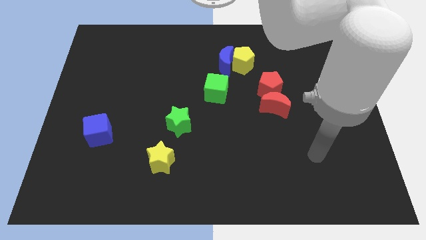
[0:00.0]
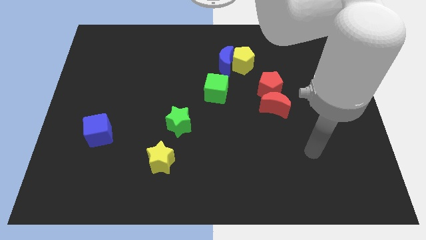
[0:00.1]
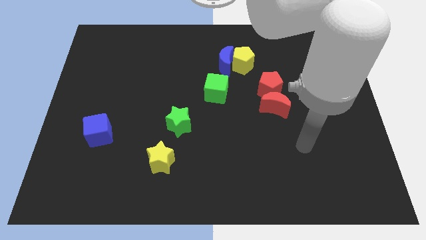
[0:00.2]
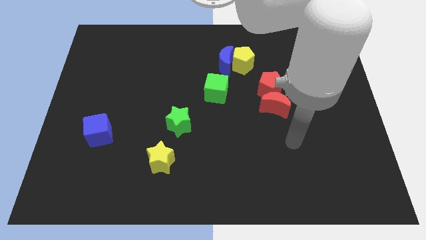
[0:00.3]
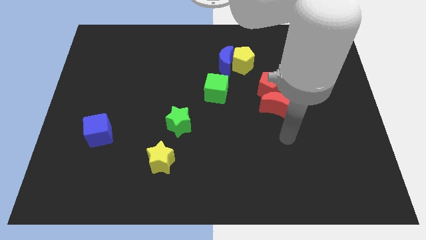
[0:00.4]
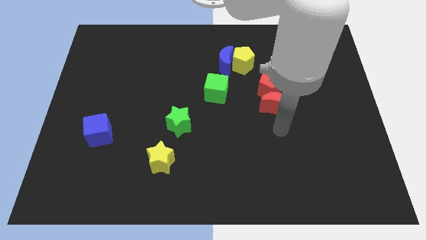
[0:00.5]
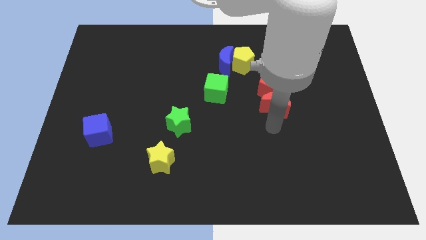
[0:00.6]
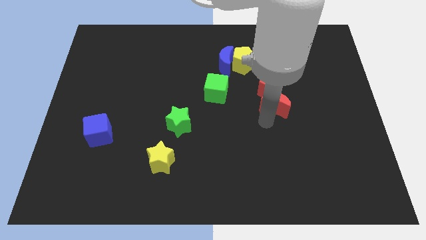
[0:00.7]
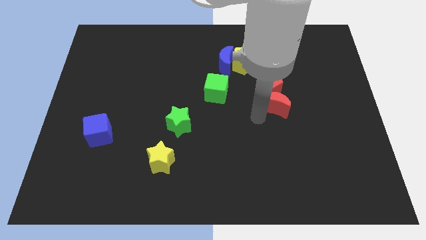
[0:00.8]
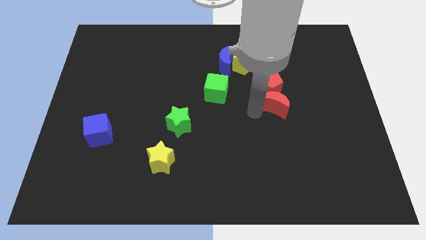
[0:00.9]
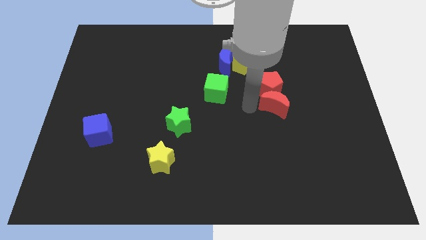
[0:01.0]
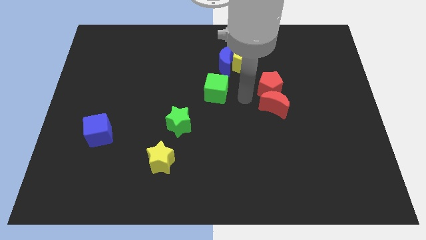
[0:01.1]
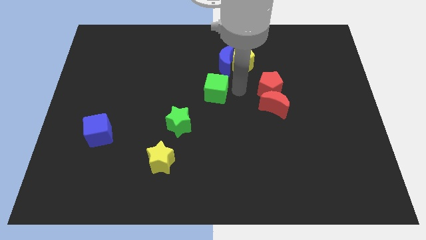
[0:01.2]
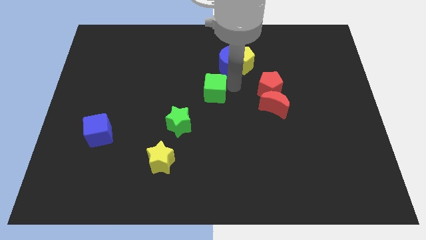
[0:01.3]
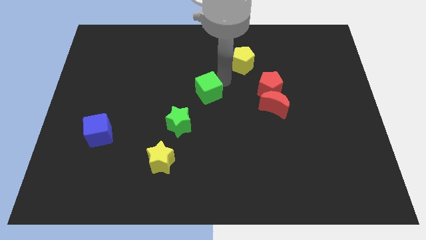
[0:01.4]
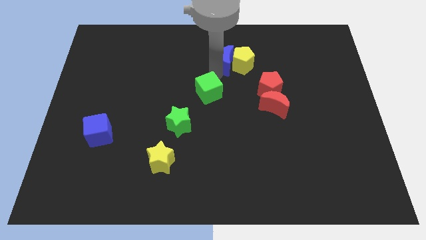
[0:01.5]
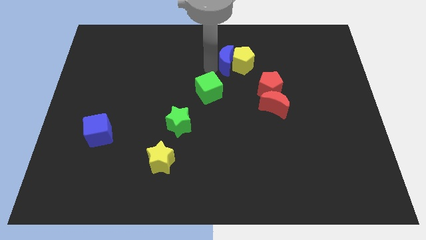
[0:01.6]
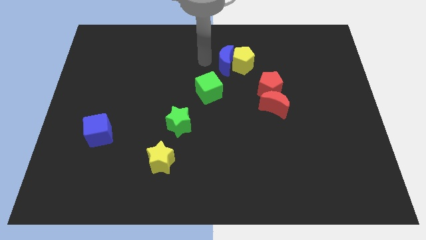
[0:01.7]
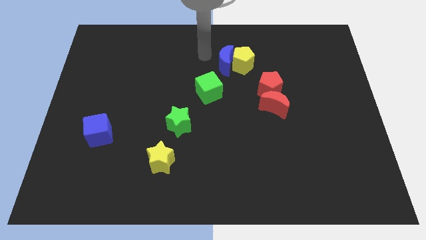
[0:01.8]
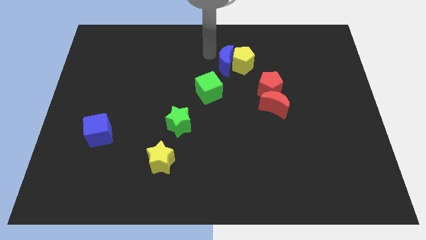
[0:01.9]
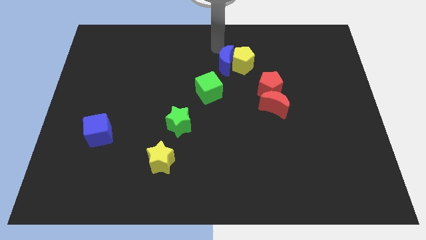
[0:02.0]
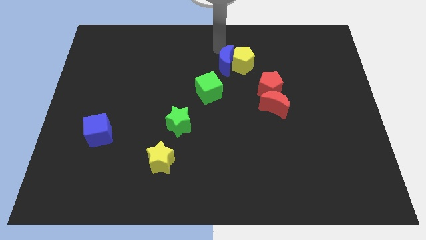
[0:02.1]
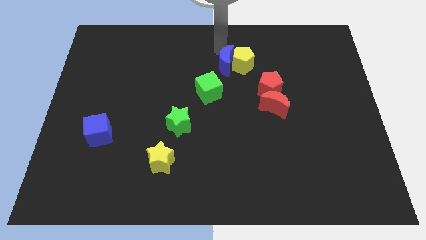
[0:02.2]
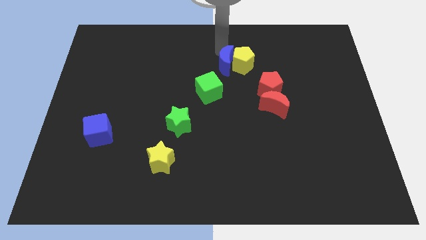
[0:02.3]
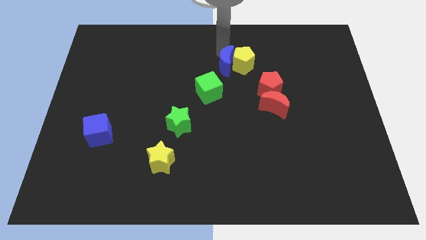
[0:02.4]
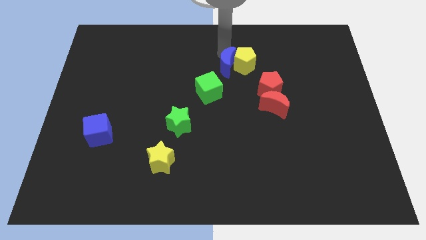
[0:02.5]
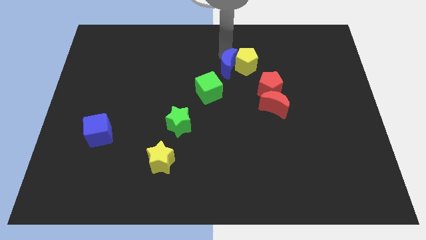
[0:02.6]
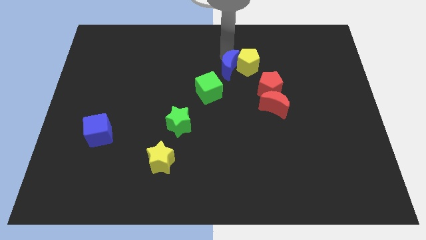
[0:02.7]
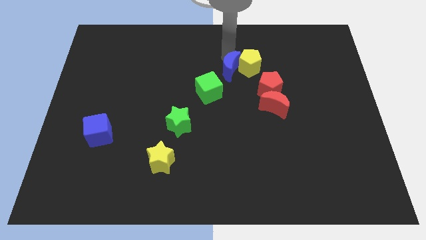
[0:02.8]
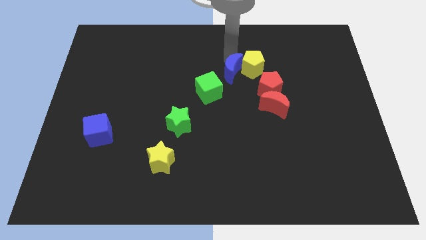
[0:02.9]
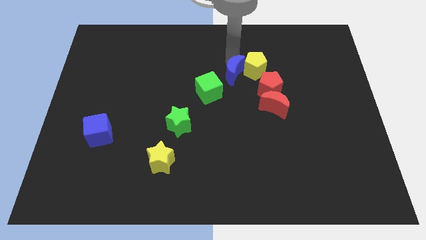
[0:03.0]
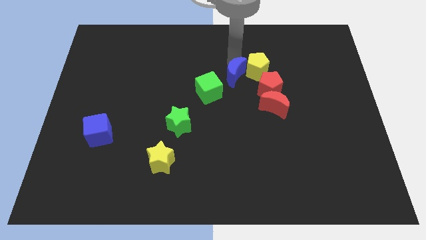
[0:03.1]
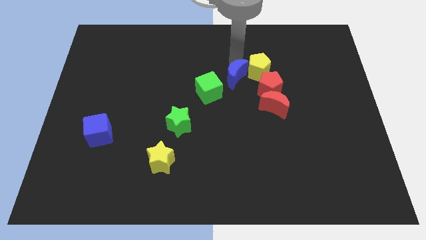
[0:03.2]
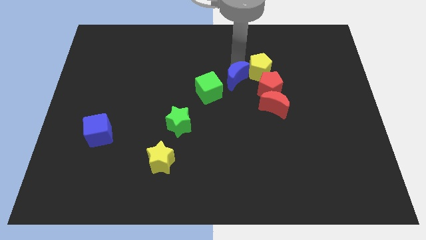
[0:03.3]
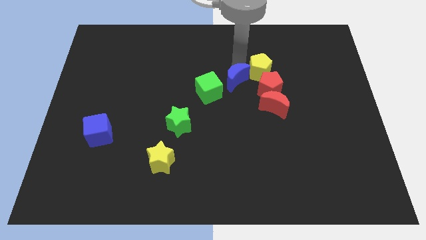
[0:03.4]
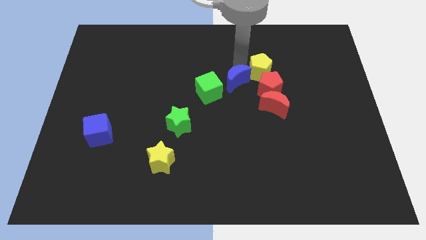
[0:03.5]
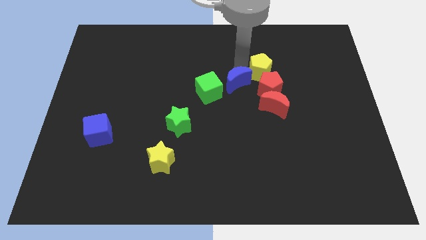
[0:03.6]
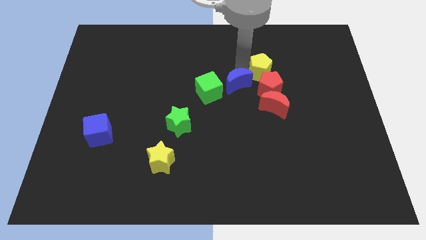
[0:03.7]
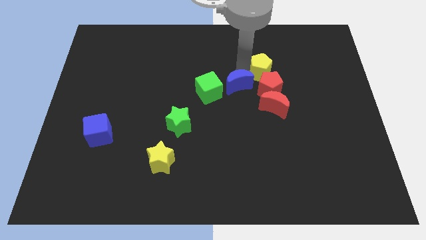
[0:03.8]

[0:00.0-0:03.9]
move the blue moon slightly down

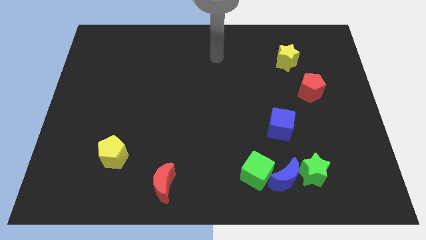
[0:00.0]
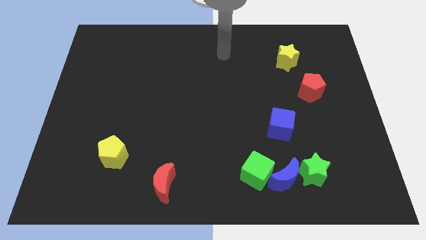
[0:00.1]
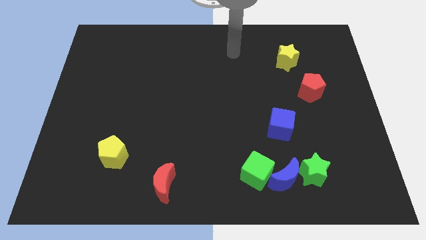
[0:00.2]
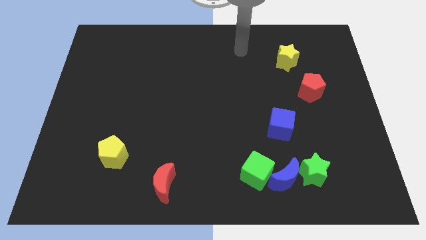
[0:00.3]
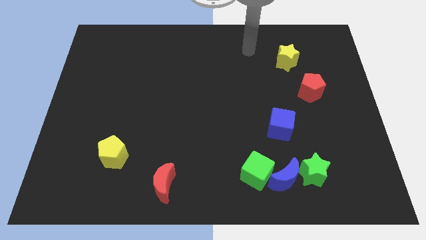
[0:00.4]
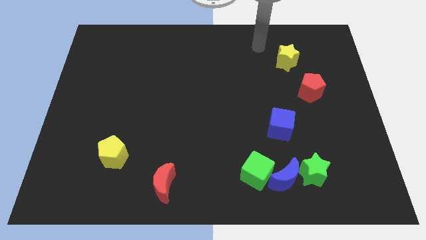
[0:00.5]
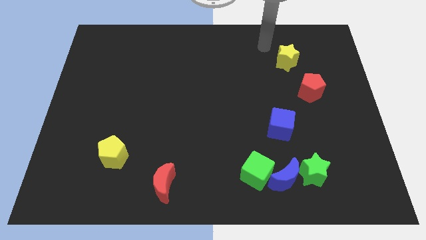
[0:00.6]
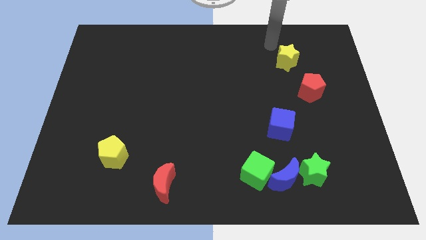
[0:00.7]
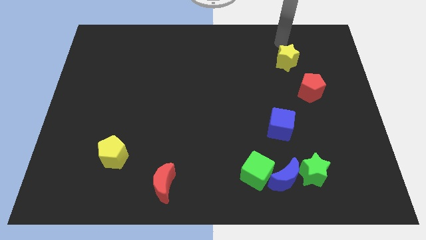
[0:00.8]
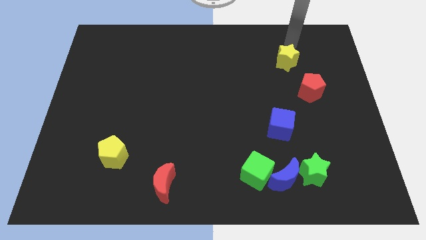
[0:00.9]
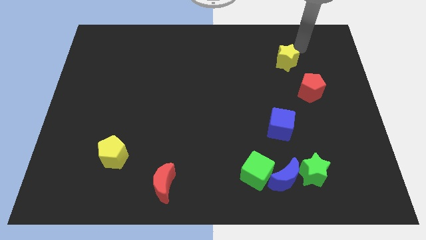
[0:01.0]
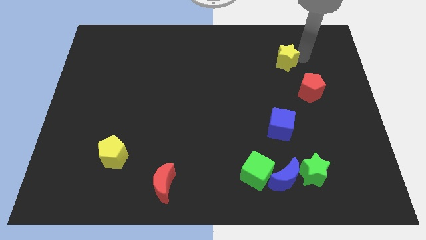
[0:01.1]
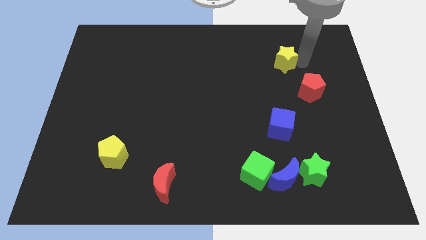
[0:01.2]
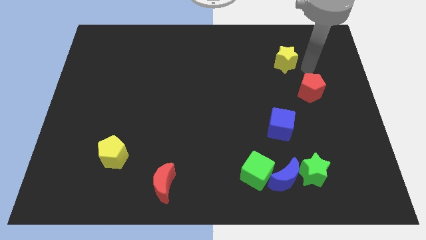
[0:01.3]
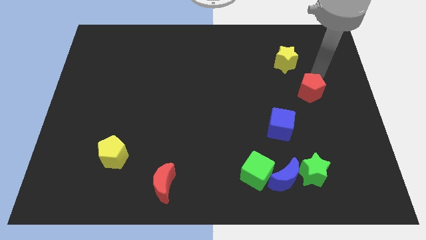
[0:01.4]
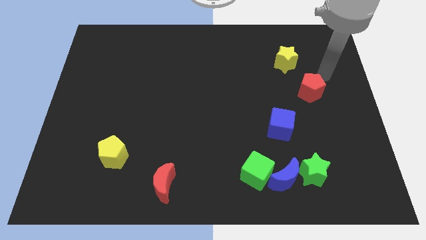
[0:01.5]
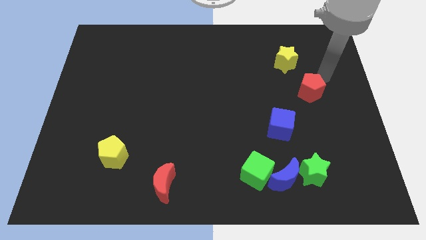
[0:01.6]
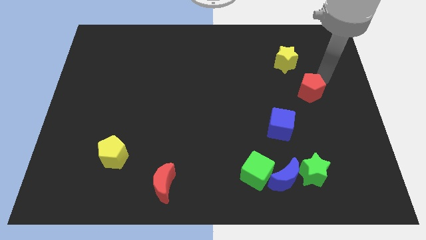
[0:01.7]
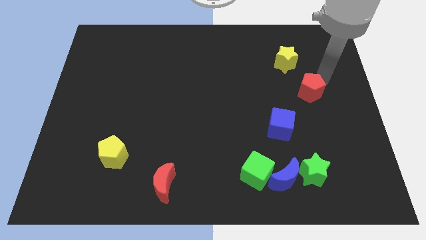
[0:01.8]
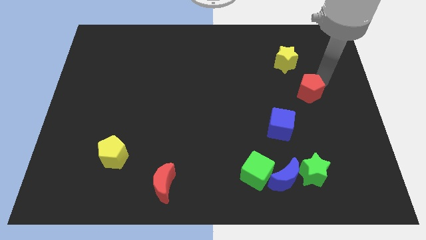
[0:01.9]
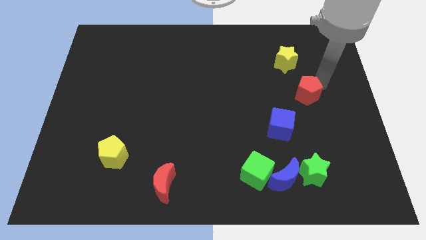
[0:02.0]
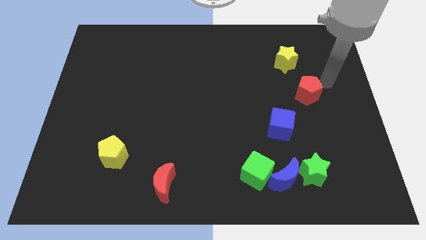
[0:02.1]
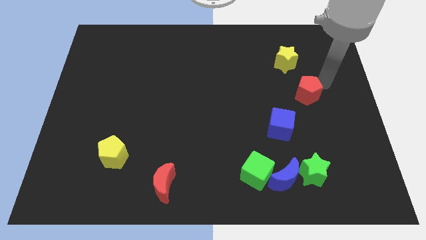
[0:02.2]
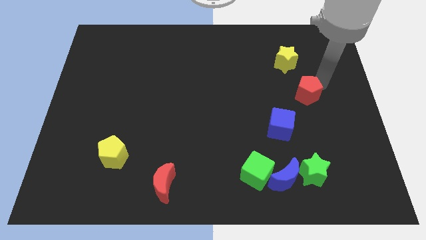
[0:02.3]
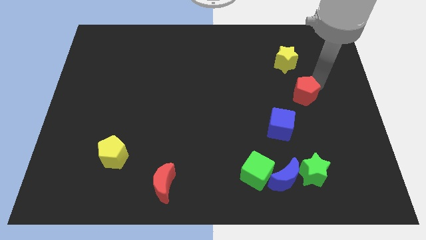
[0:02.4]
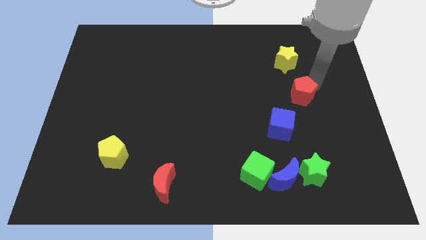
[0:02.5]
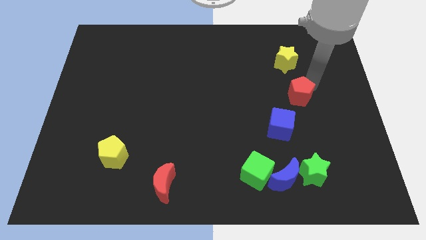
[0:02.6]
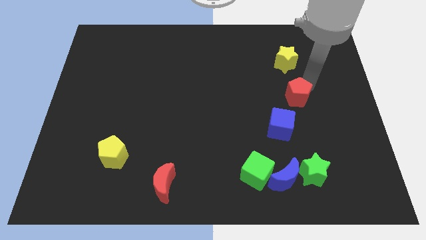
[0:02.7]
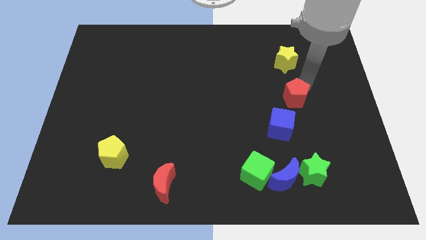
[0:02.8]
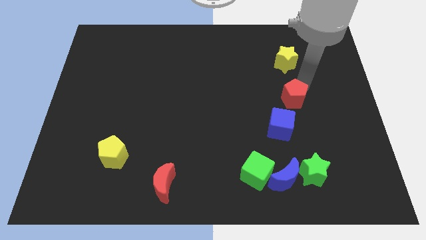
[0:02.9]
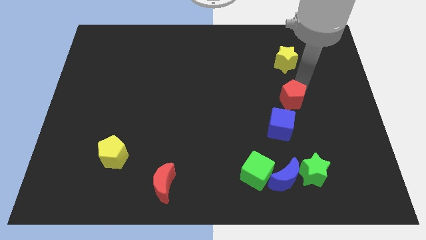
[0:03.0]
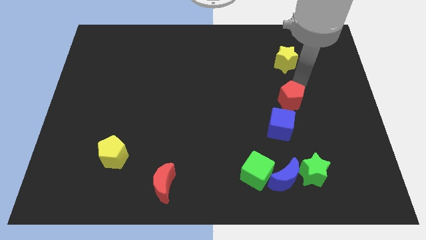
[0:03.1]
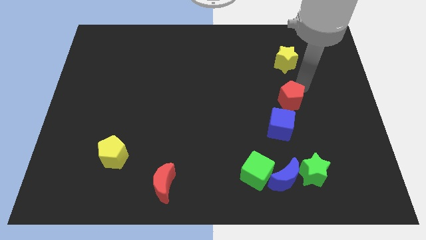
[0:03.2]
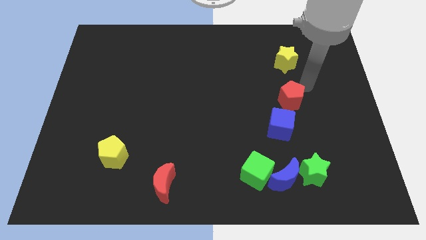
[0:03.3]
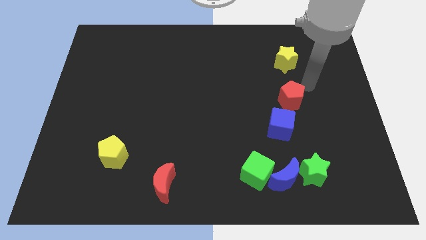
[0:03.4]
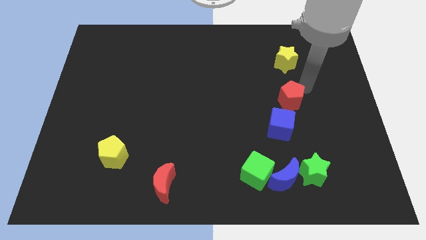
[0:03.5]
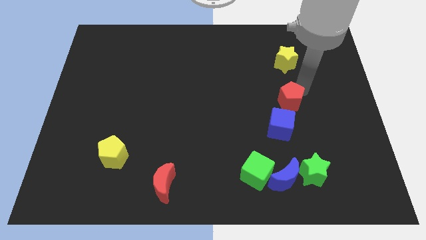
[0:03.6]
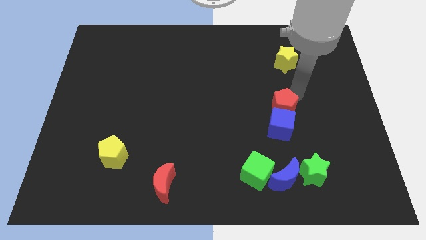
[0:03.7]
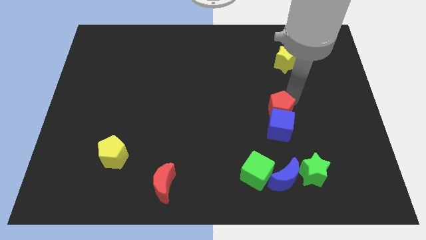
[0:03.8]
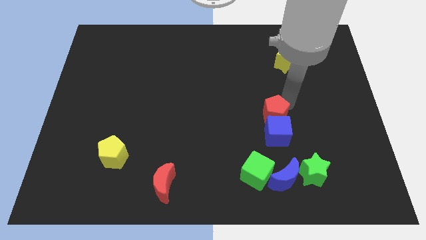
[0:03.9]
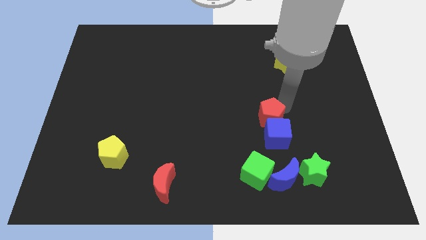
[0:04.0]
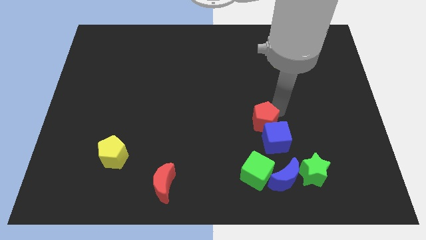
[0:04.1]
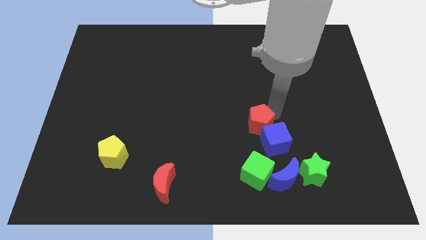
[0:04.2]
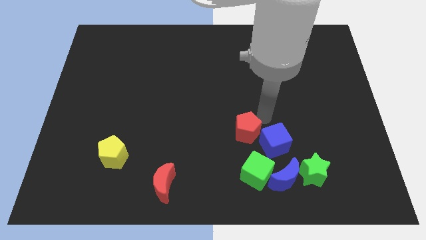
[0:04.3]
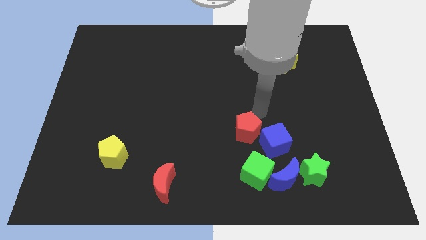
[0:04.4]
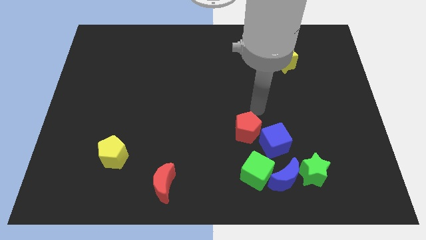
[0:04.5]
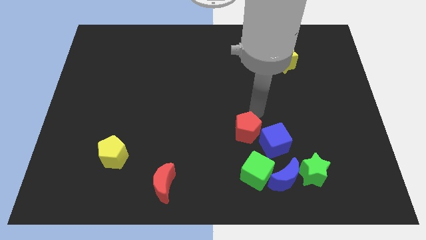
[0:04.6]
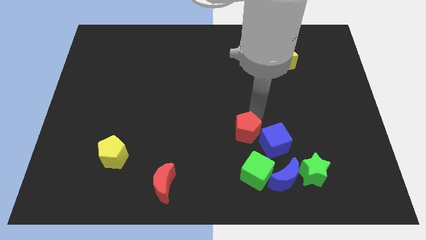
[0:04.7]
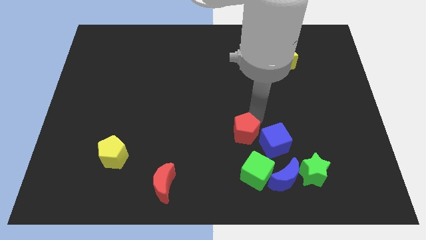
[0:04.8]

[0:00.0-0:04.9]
slide the red pentagon diagonally down and left
